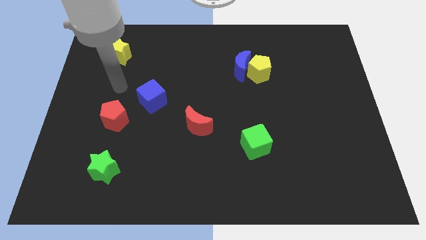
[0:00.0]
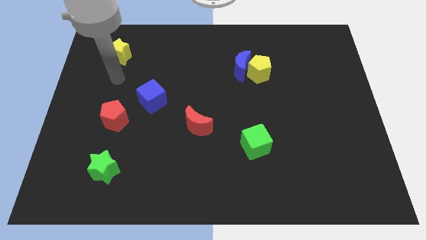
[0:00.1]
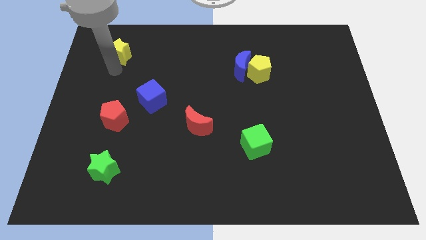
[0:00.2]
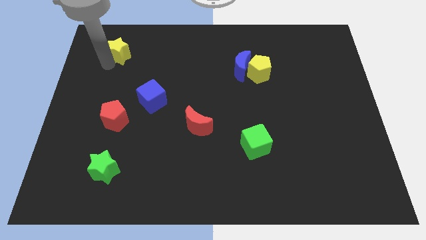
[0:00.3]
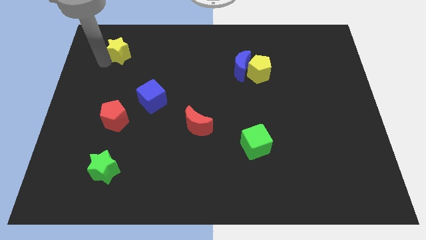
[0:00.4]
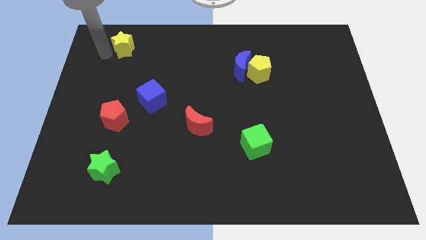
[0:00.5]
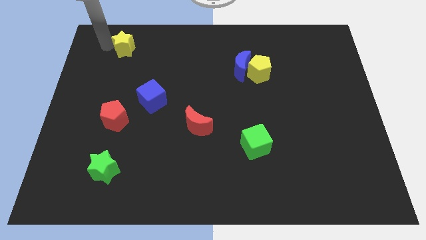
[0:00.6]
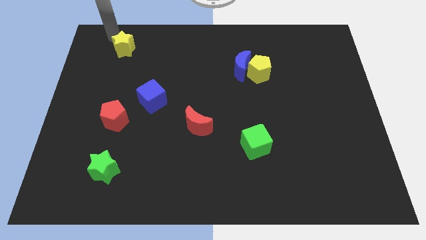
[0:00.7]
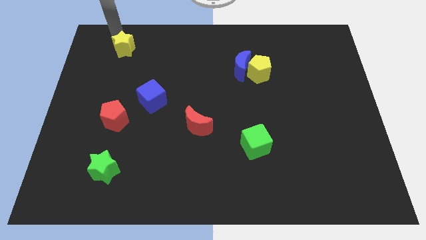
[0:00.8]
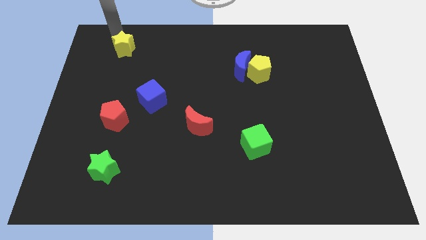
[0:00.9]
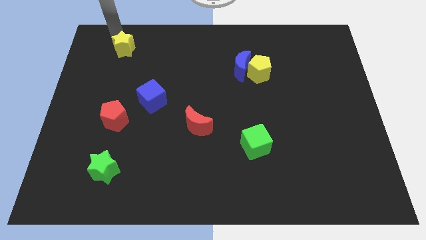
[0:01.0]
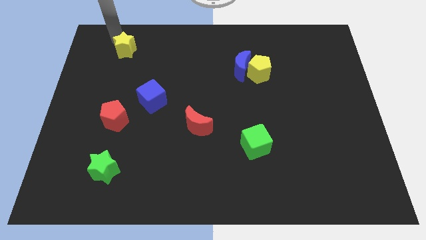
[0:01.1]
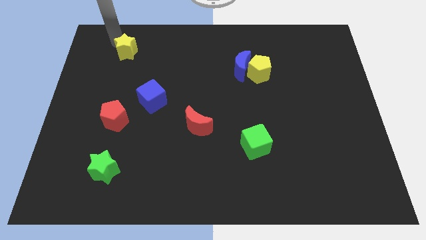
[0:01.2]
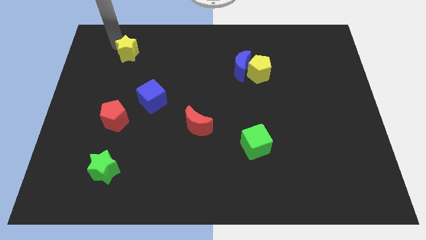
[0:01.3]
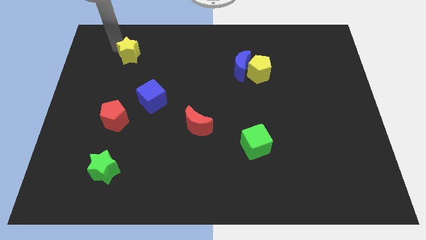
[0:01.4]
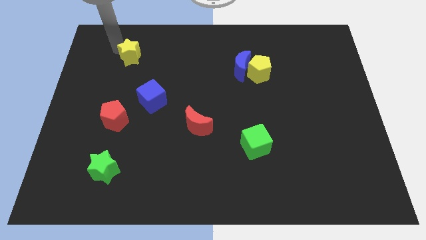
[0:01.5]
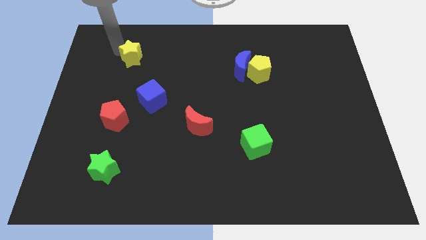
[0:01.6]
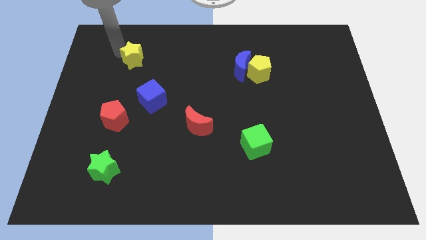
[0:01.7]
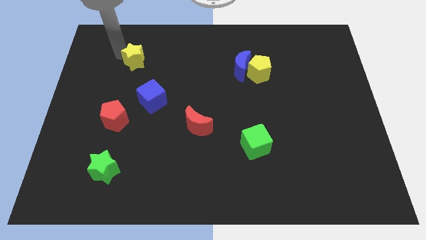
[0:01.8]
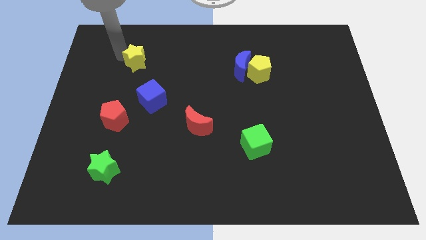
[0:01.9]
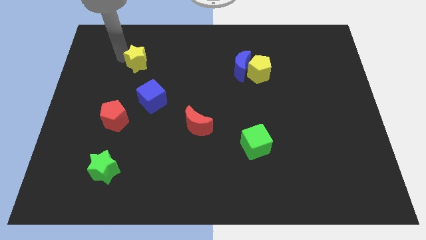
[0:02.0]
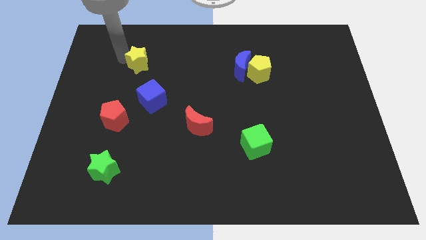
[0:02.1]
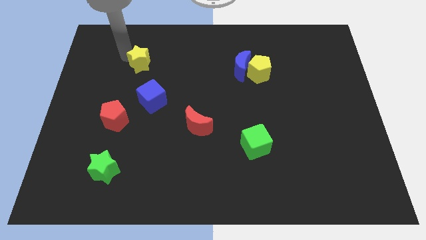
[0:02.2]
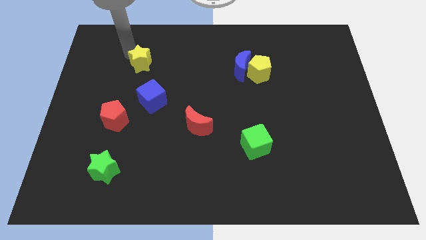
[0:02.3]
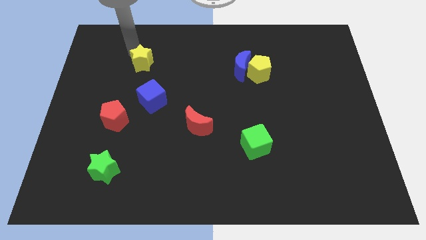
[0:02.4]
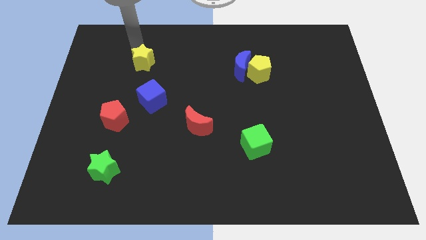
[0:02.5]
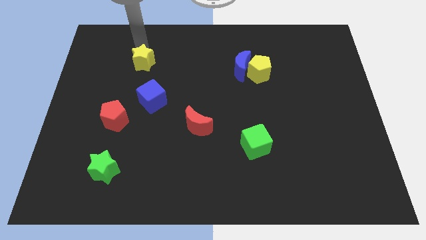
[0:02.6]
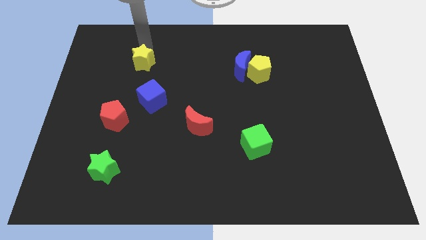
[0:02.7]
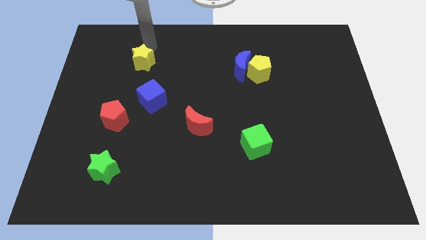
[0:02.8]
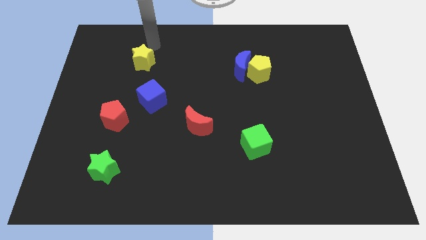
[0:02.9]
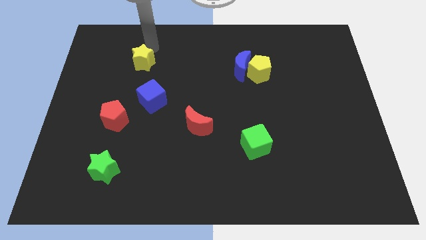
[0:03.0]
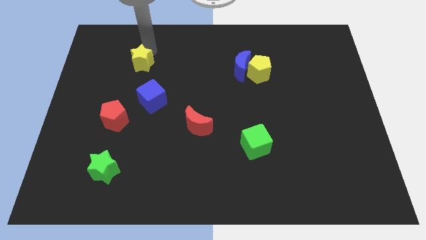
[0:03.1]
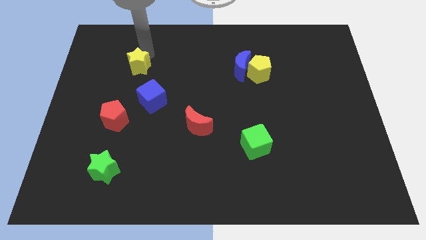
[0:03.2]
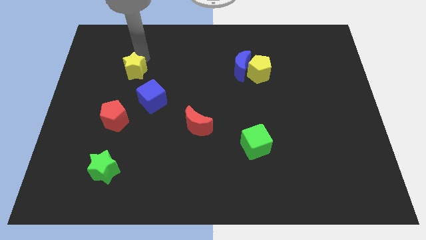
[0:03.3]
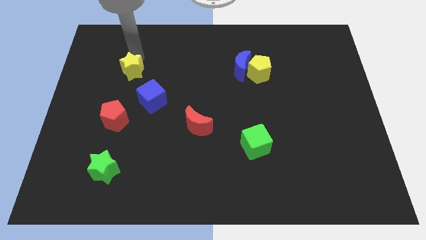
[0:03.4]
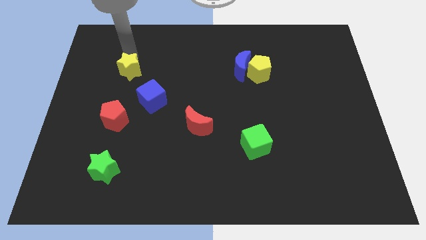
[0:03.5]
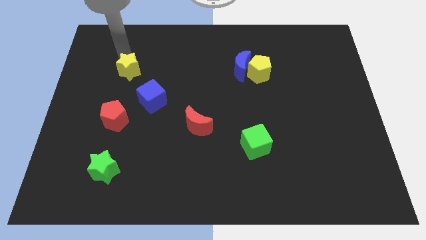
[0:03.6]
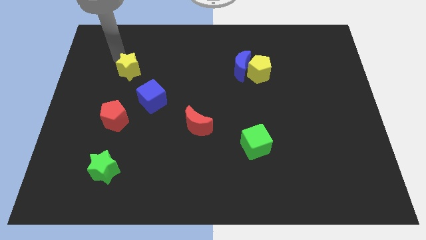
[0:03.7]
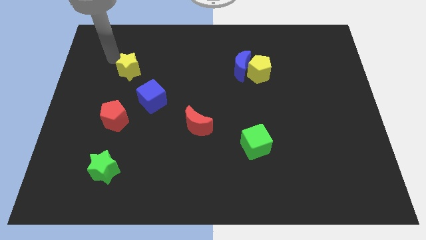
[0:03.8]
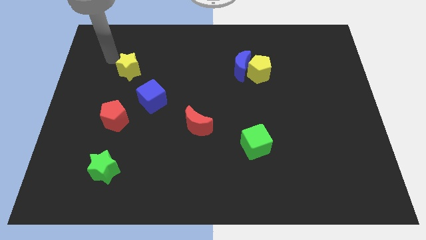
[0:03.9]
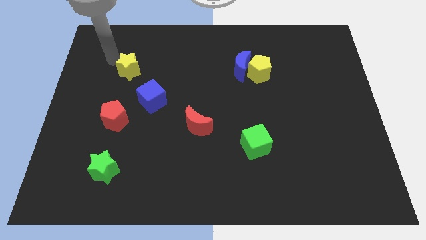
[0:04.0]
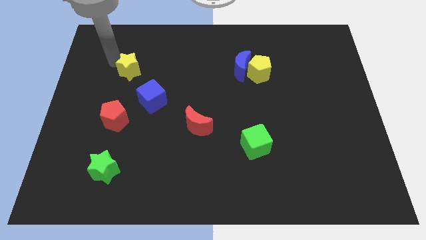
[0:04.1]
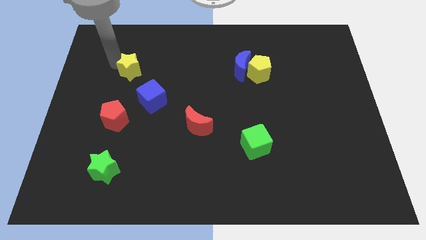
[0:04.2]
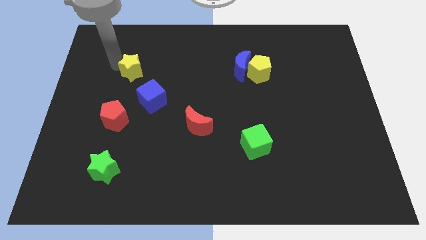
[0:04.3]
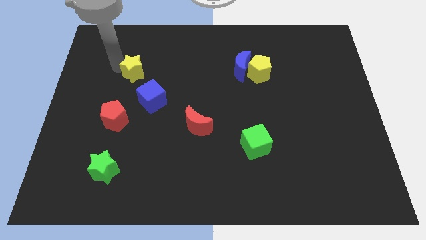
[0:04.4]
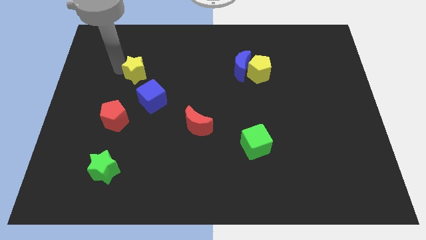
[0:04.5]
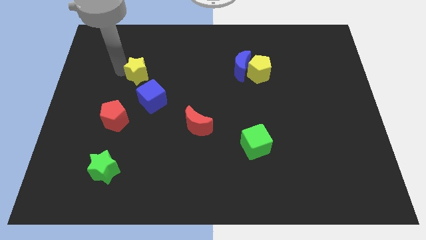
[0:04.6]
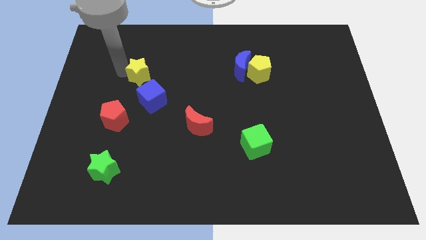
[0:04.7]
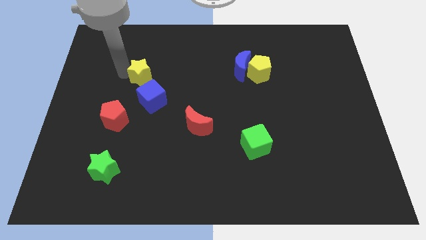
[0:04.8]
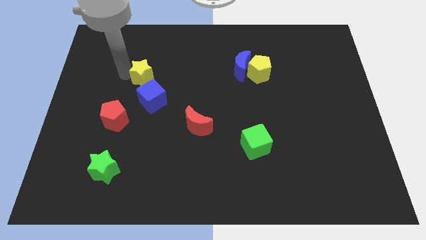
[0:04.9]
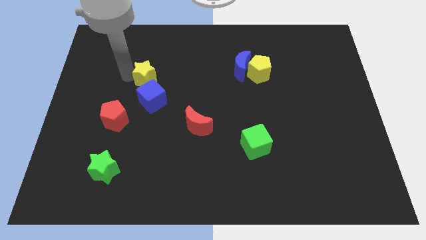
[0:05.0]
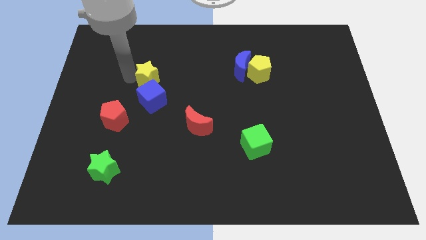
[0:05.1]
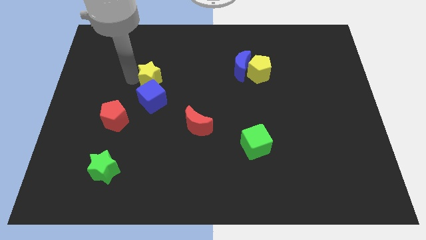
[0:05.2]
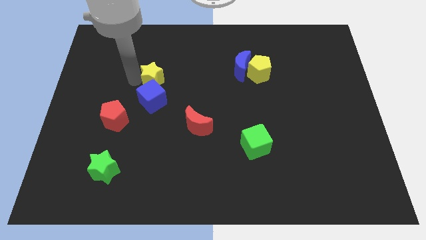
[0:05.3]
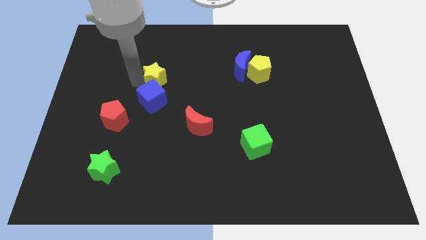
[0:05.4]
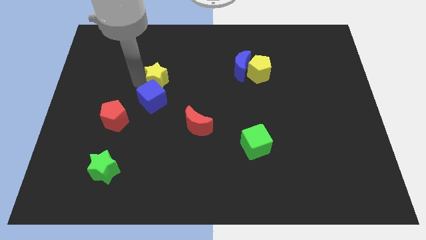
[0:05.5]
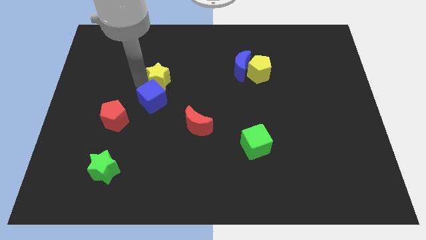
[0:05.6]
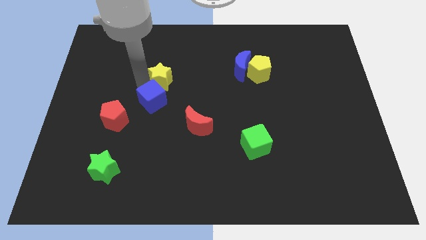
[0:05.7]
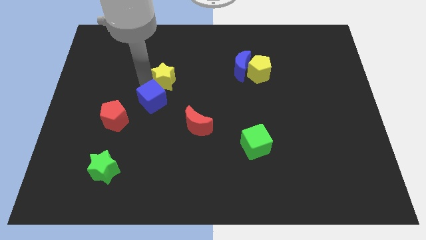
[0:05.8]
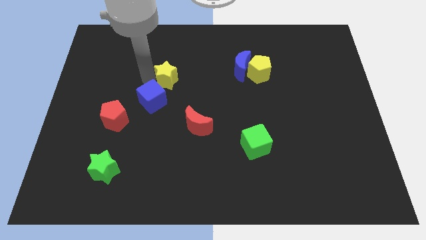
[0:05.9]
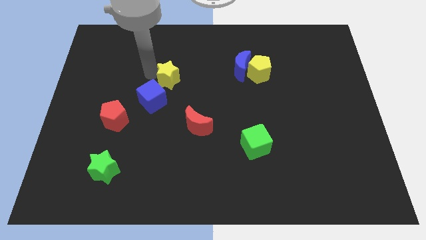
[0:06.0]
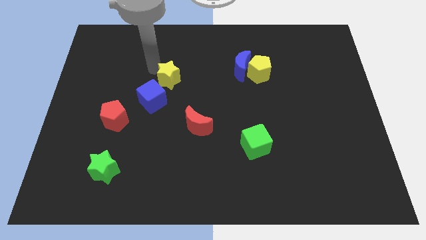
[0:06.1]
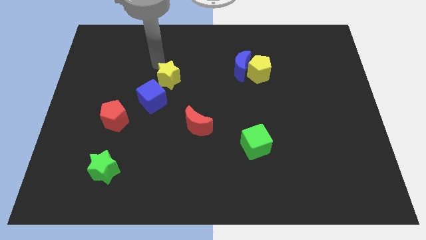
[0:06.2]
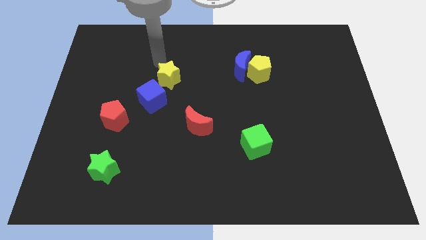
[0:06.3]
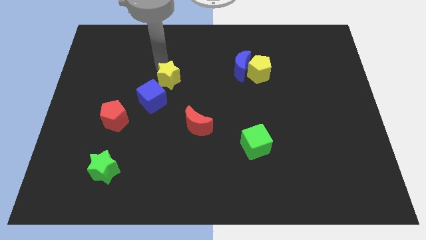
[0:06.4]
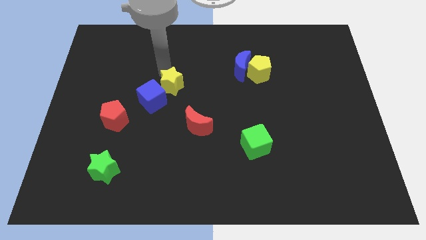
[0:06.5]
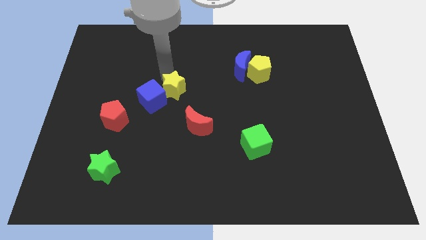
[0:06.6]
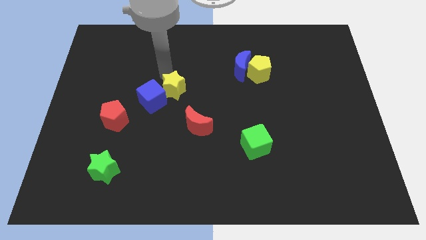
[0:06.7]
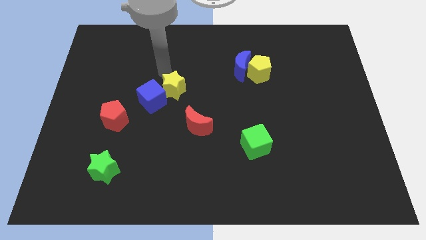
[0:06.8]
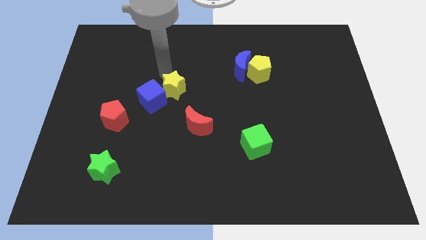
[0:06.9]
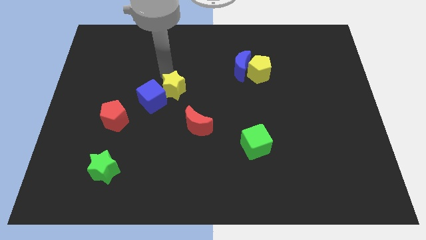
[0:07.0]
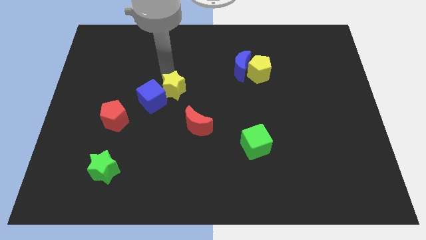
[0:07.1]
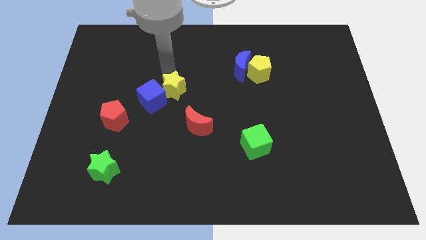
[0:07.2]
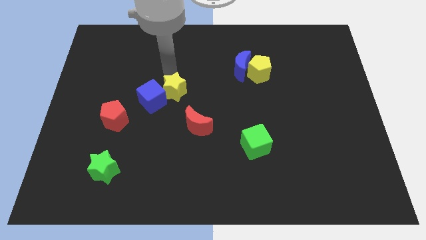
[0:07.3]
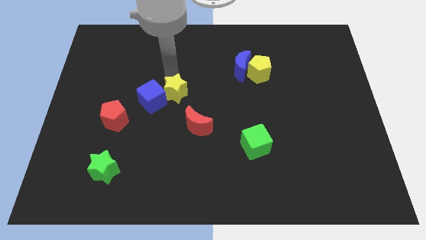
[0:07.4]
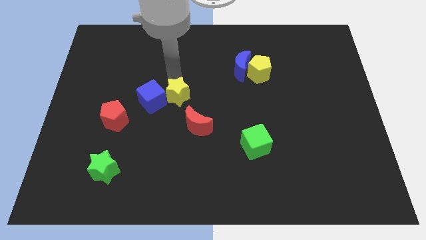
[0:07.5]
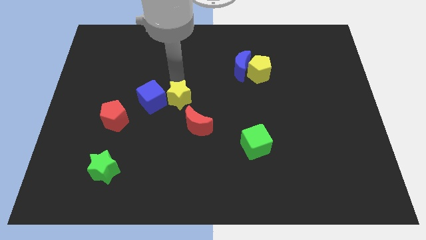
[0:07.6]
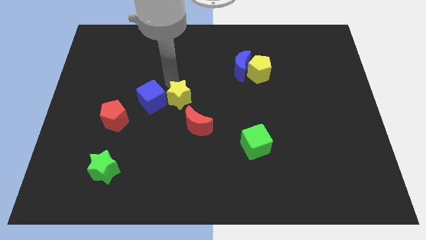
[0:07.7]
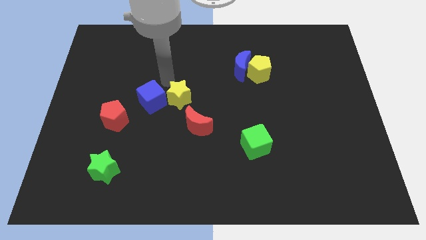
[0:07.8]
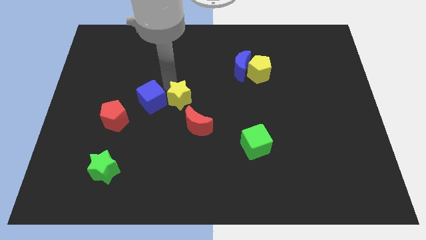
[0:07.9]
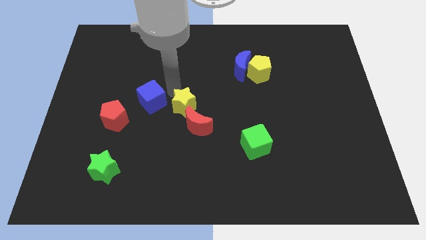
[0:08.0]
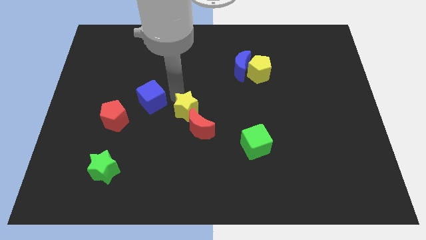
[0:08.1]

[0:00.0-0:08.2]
push the yellow star next to the red moon
